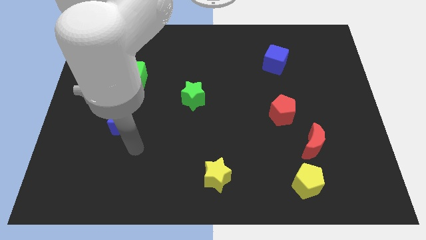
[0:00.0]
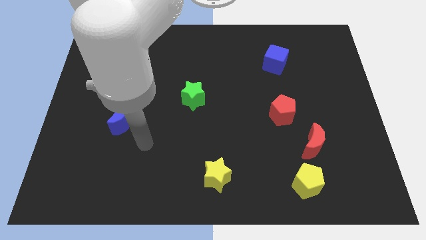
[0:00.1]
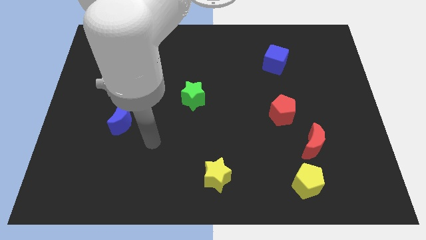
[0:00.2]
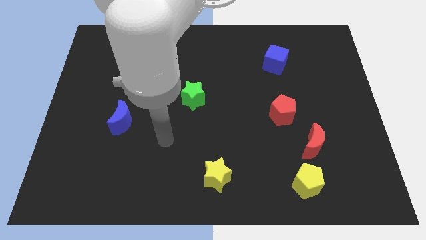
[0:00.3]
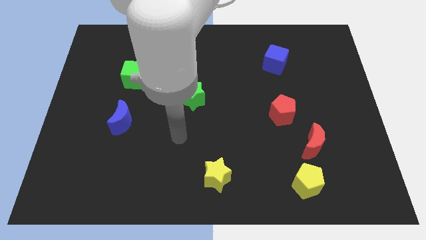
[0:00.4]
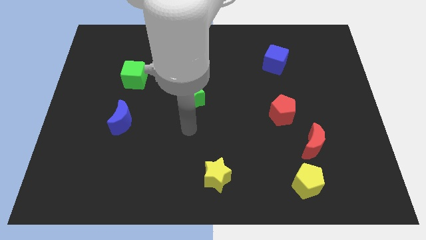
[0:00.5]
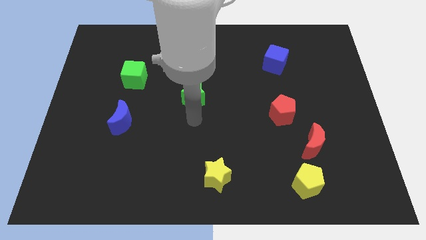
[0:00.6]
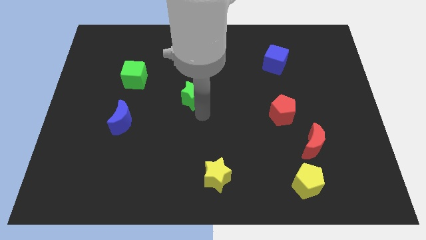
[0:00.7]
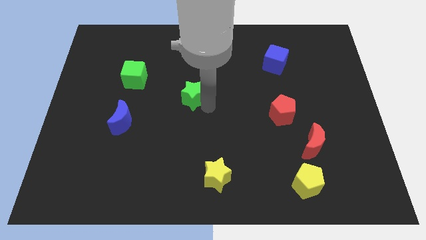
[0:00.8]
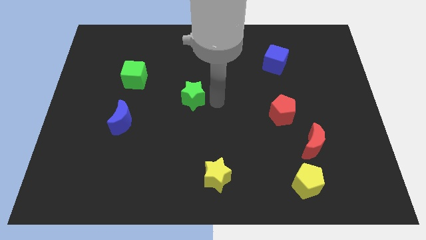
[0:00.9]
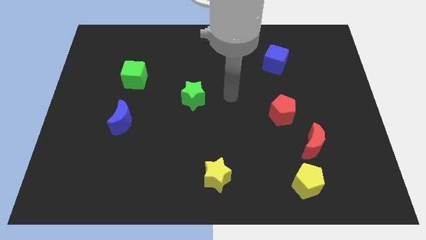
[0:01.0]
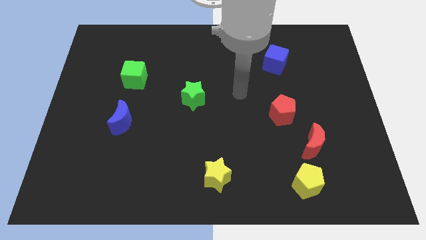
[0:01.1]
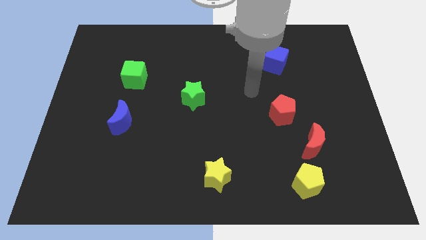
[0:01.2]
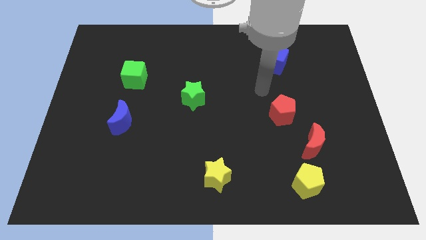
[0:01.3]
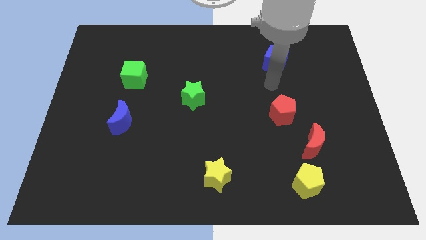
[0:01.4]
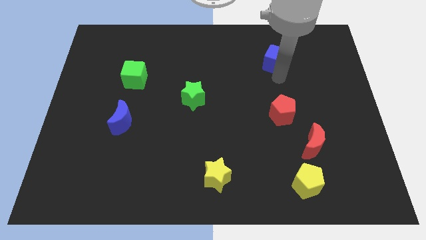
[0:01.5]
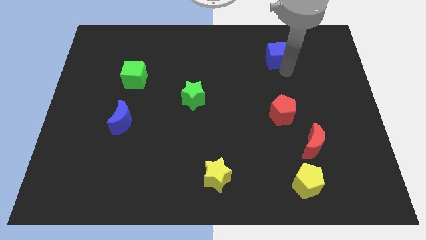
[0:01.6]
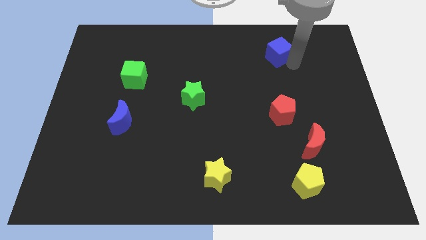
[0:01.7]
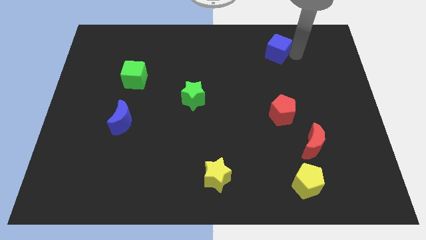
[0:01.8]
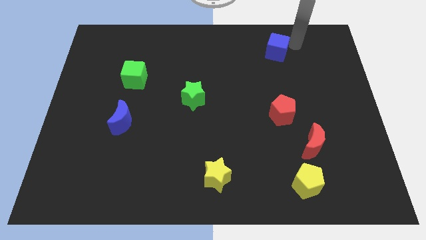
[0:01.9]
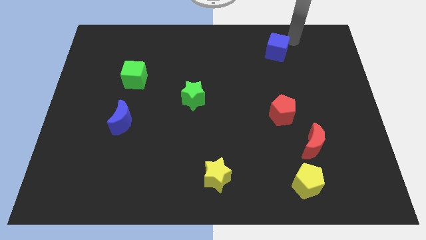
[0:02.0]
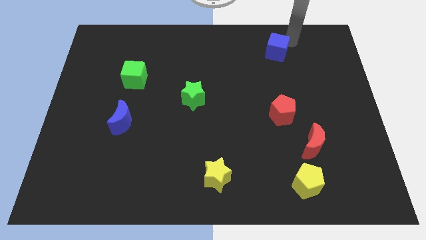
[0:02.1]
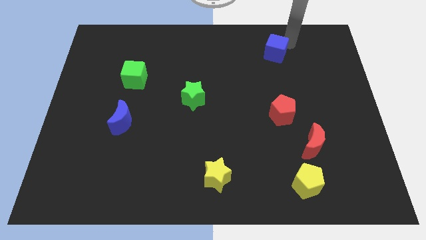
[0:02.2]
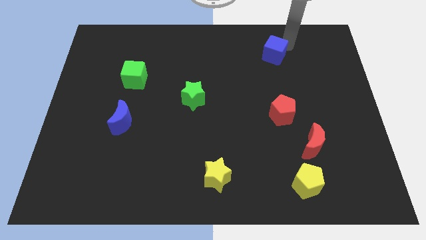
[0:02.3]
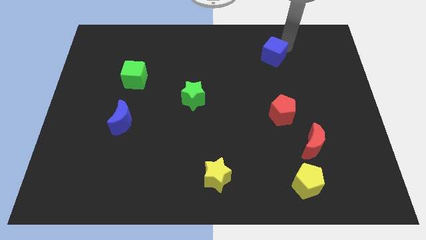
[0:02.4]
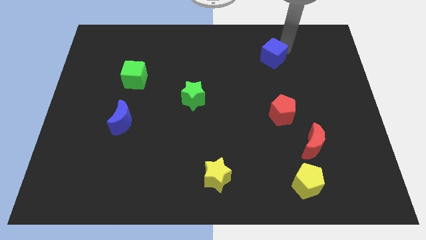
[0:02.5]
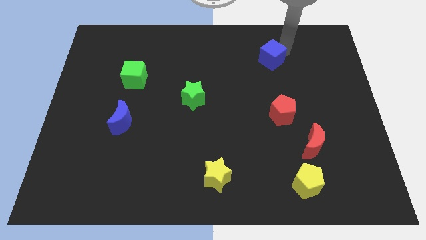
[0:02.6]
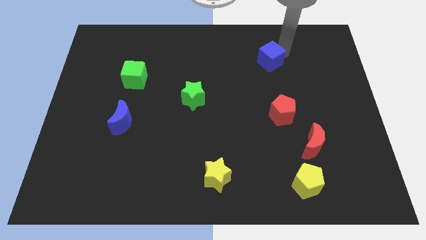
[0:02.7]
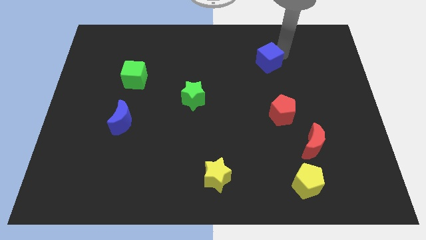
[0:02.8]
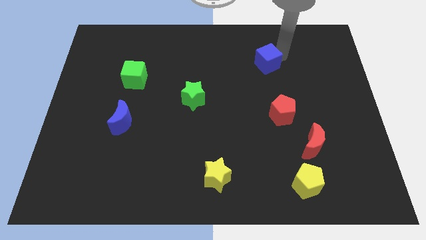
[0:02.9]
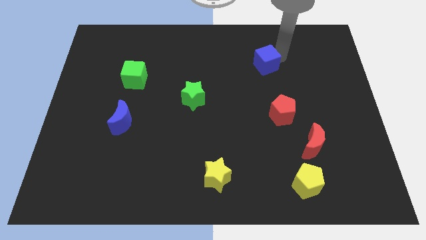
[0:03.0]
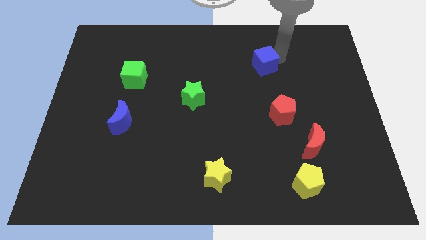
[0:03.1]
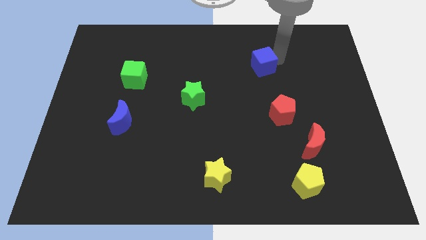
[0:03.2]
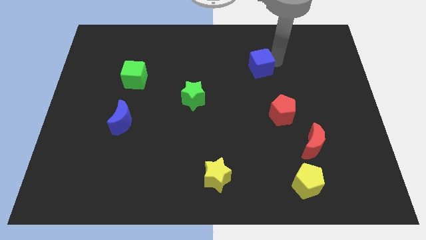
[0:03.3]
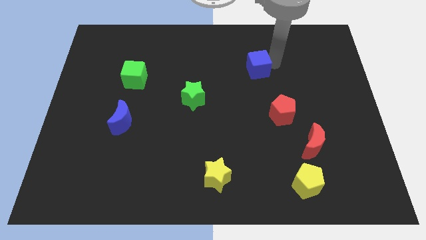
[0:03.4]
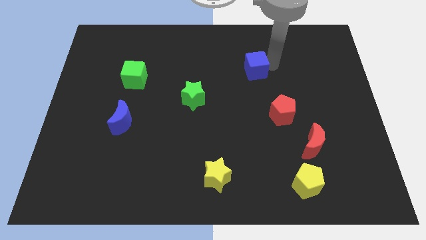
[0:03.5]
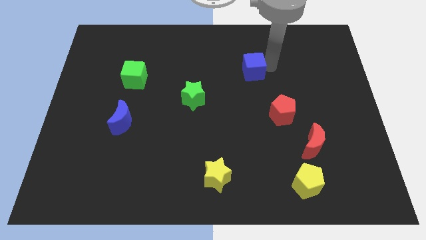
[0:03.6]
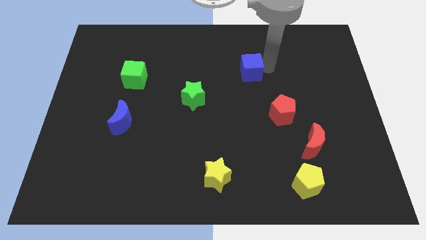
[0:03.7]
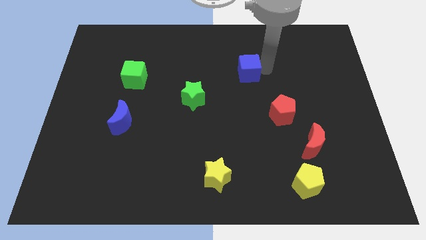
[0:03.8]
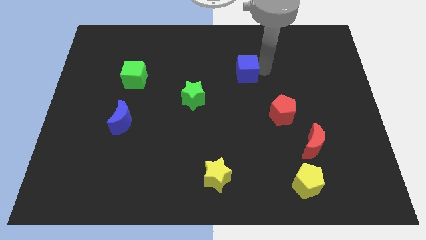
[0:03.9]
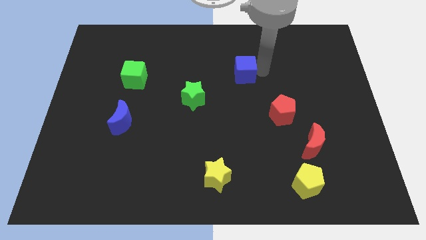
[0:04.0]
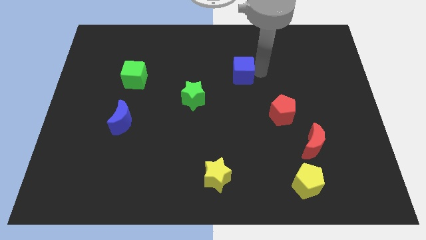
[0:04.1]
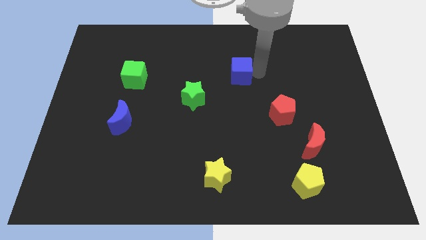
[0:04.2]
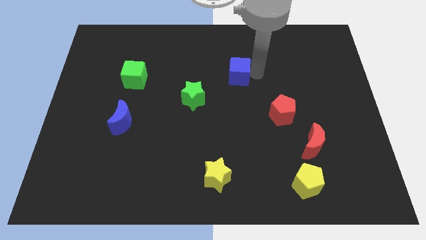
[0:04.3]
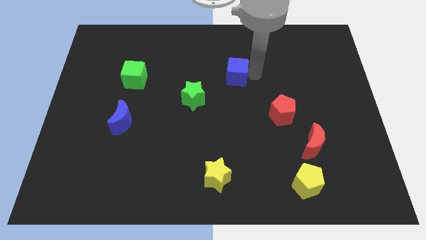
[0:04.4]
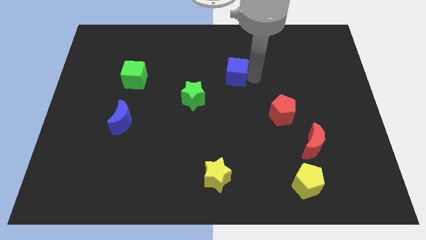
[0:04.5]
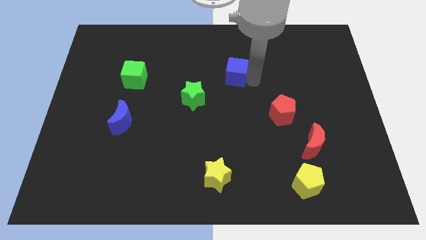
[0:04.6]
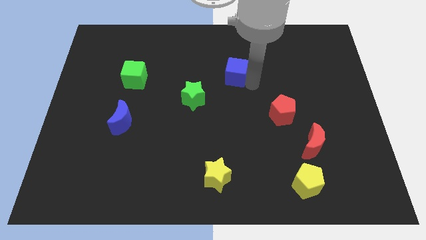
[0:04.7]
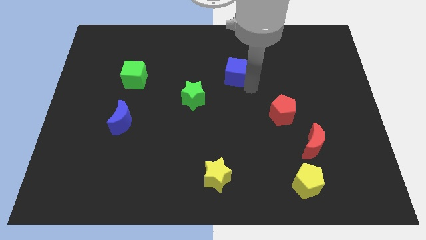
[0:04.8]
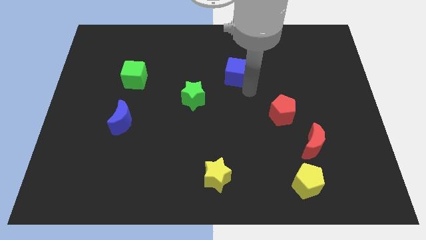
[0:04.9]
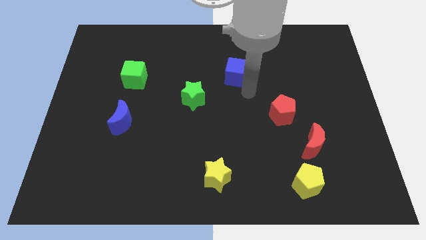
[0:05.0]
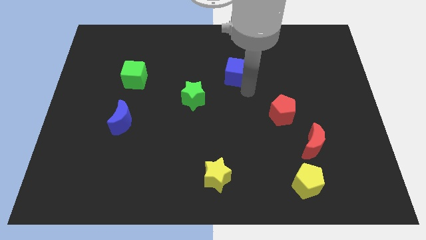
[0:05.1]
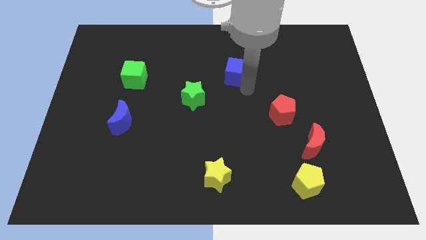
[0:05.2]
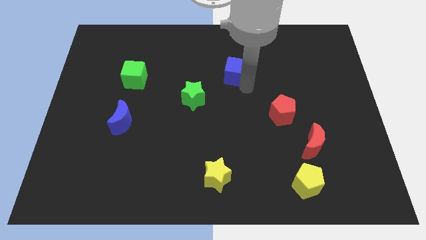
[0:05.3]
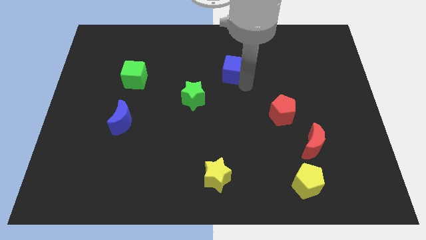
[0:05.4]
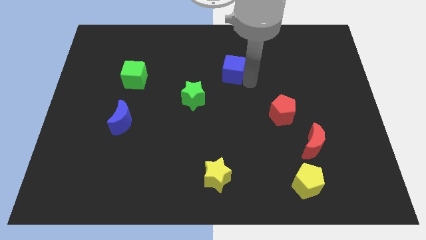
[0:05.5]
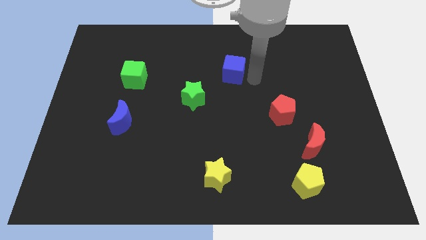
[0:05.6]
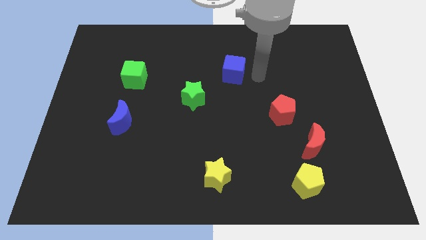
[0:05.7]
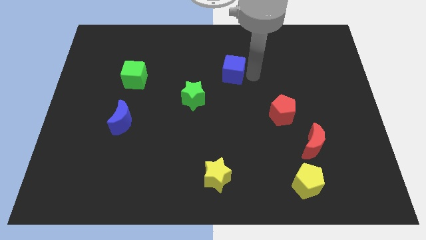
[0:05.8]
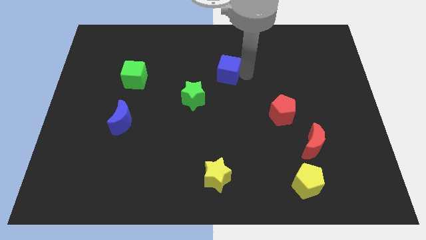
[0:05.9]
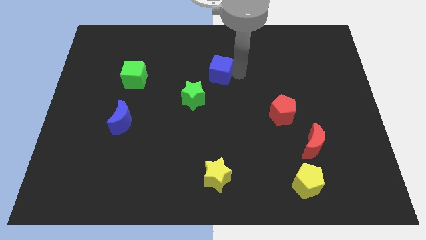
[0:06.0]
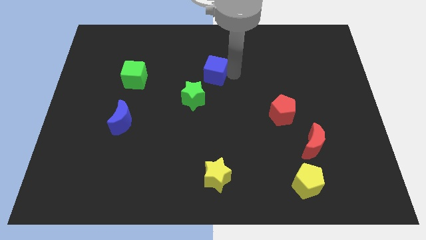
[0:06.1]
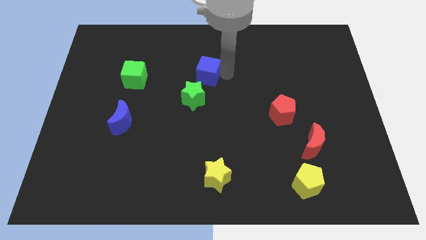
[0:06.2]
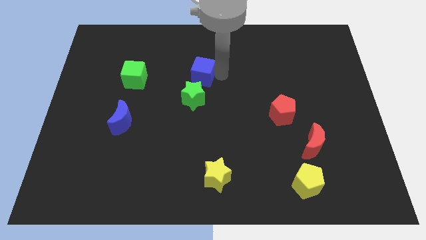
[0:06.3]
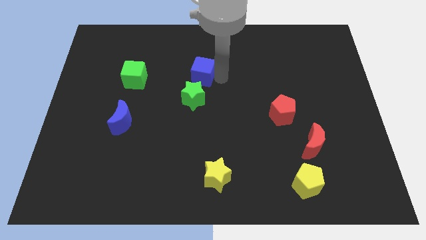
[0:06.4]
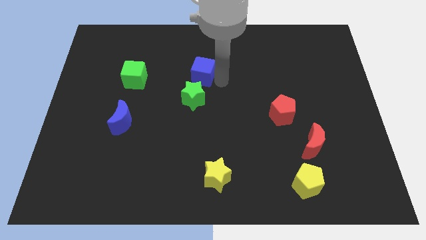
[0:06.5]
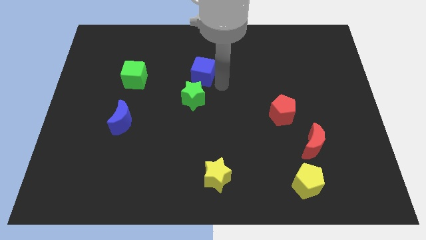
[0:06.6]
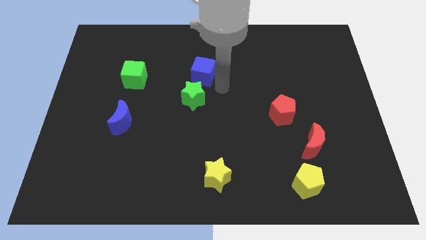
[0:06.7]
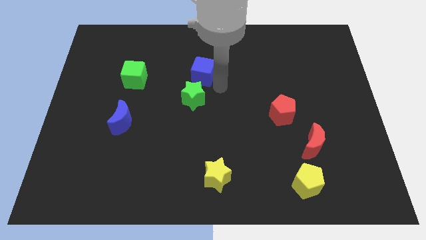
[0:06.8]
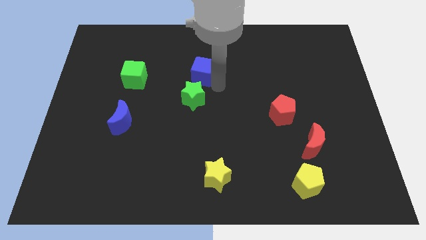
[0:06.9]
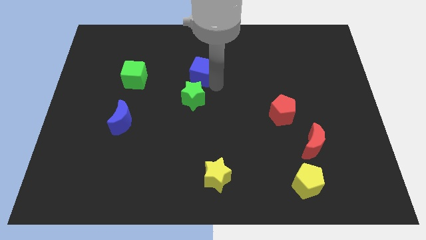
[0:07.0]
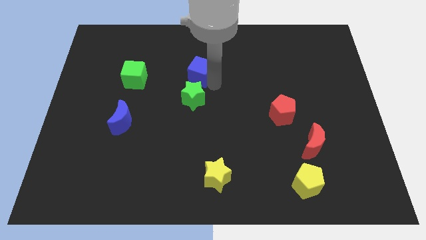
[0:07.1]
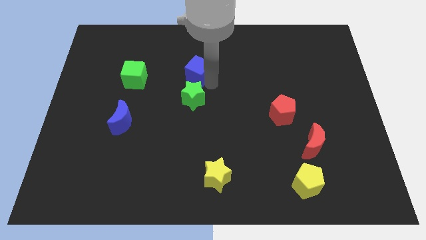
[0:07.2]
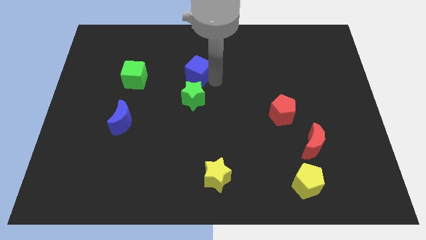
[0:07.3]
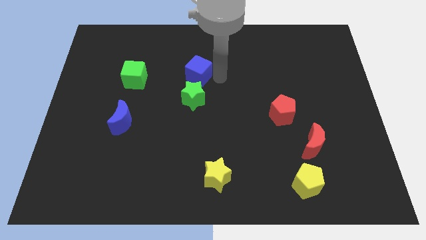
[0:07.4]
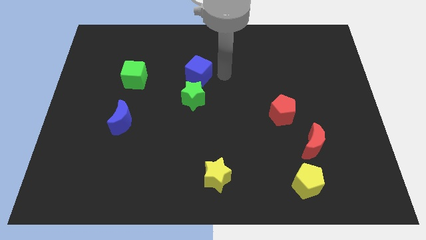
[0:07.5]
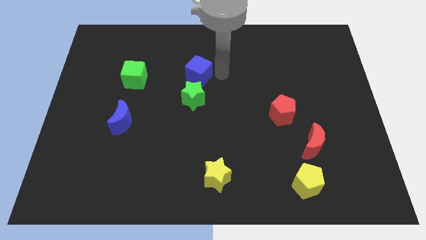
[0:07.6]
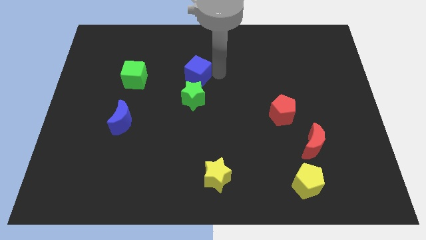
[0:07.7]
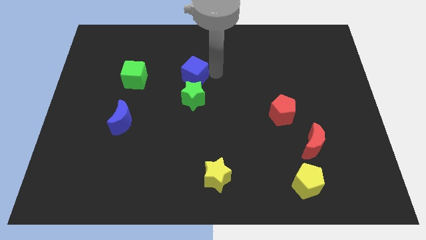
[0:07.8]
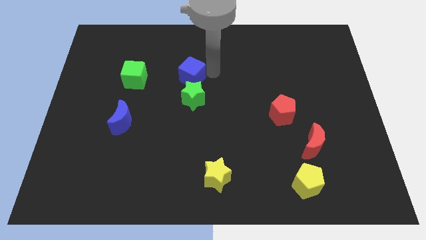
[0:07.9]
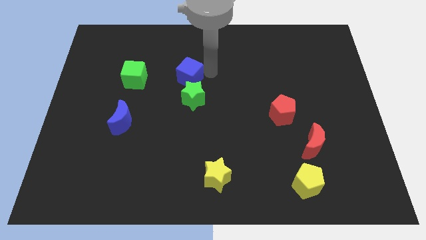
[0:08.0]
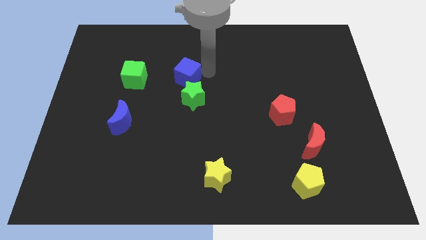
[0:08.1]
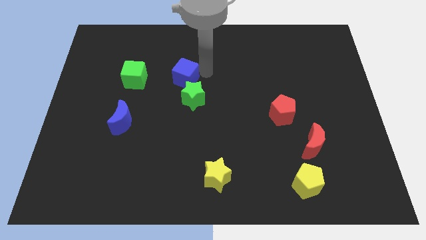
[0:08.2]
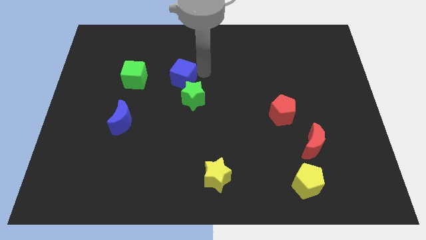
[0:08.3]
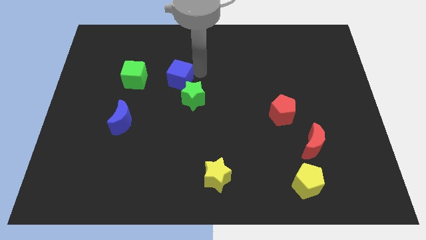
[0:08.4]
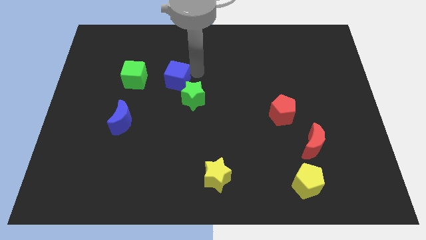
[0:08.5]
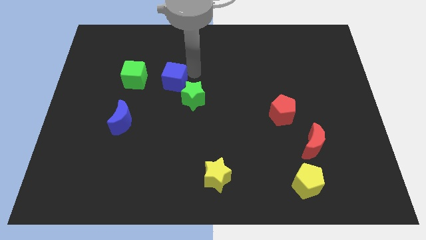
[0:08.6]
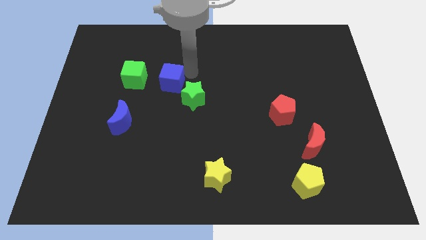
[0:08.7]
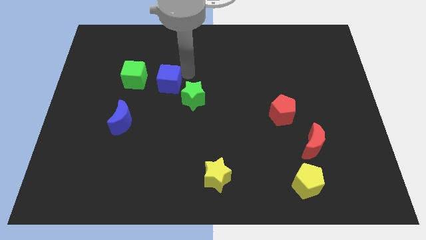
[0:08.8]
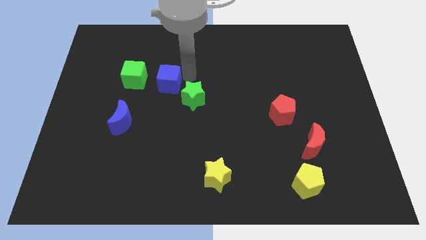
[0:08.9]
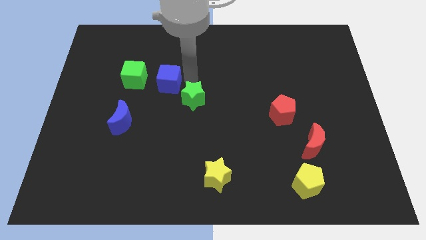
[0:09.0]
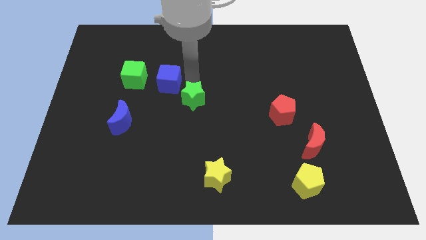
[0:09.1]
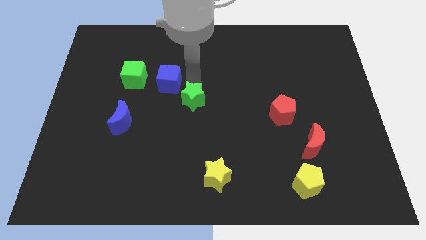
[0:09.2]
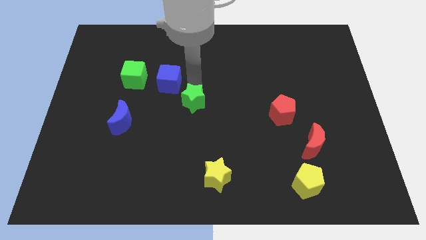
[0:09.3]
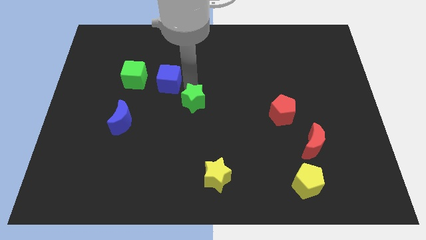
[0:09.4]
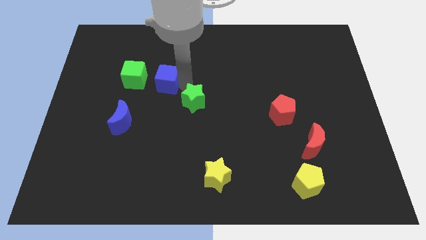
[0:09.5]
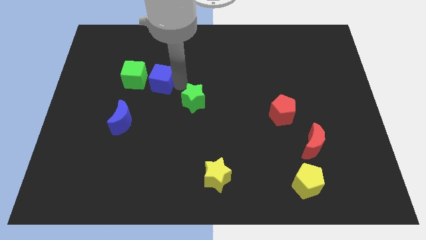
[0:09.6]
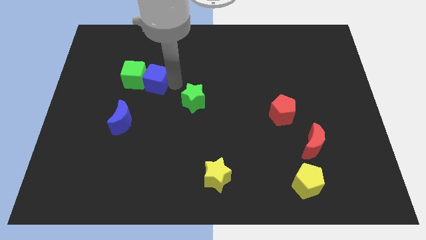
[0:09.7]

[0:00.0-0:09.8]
move the blue cube towards the green cube
